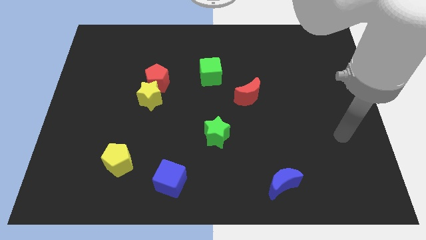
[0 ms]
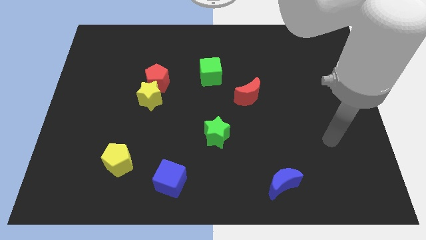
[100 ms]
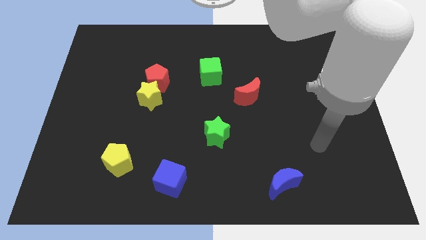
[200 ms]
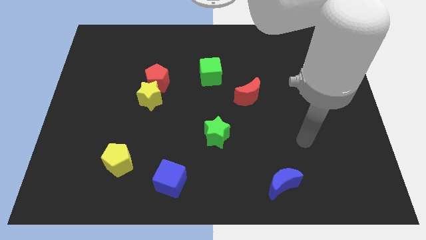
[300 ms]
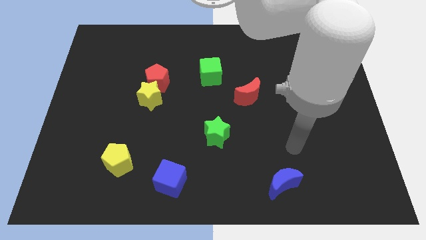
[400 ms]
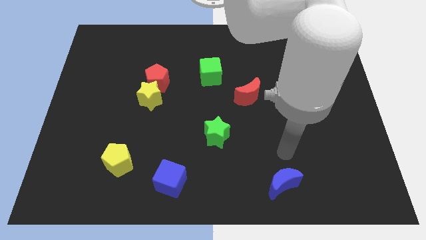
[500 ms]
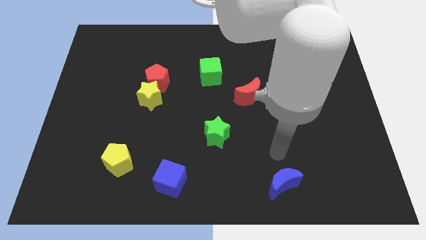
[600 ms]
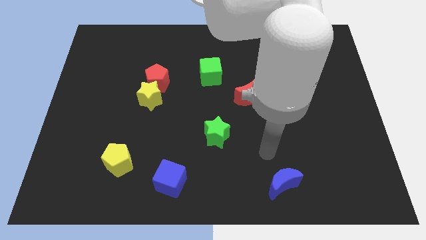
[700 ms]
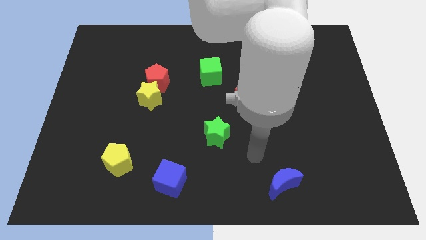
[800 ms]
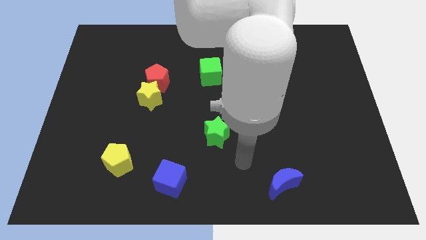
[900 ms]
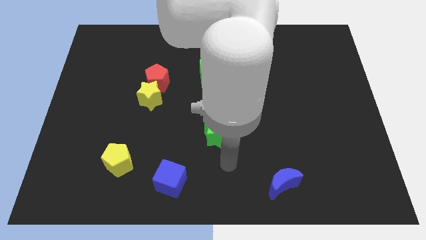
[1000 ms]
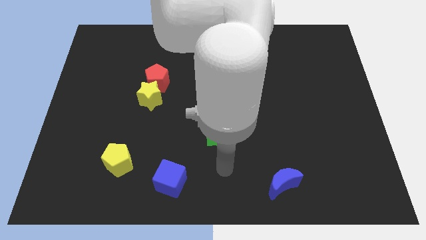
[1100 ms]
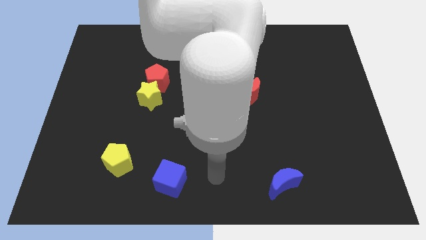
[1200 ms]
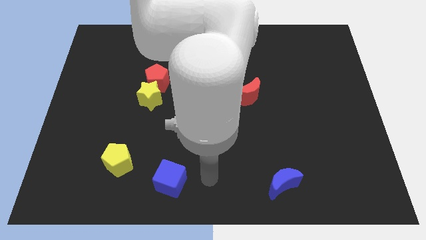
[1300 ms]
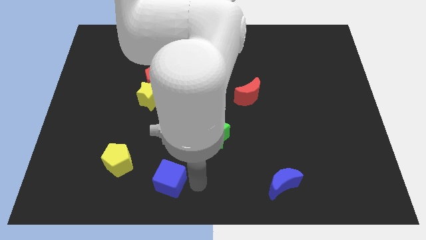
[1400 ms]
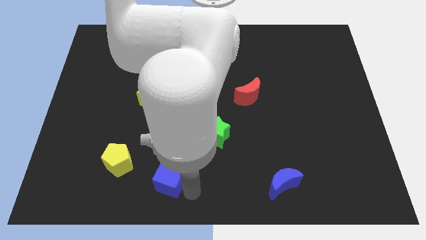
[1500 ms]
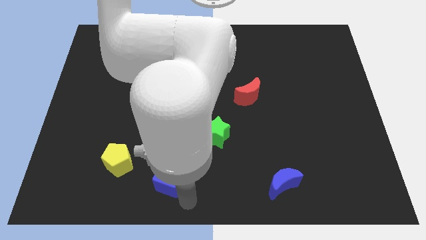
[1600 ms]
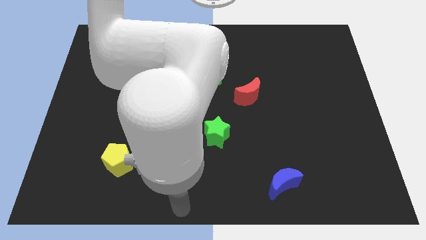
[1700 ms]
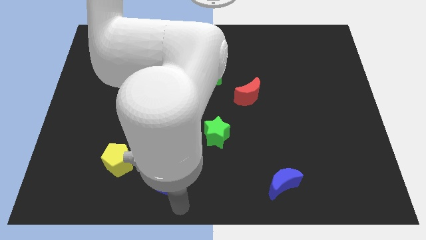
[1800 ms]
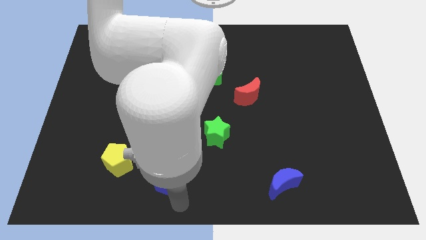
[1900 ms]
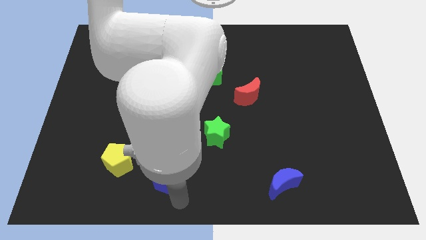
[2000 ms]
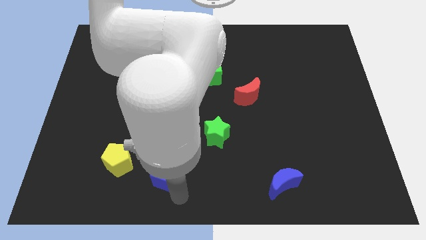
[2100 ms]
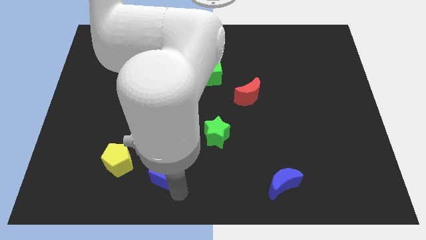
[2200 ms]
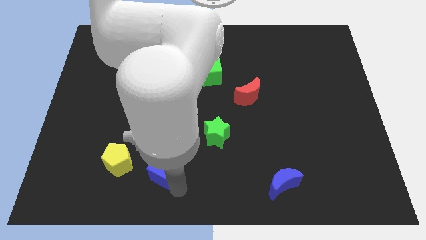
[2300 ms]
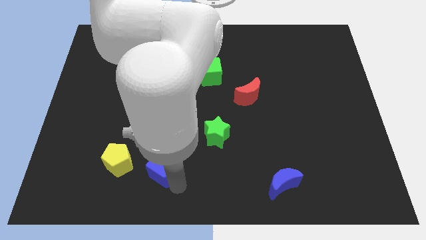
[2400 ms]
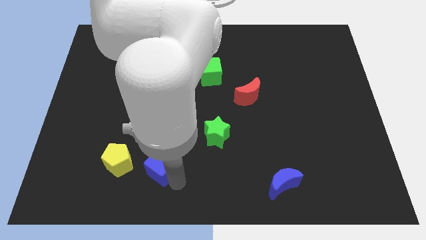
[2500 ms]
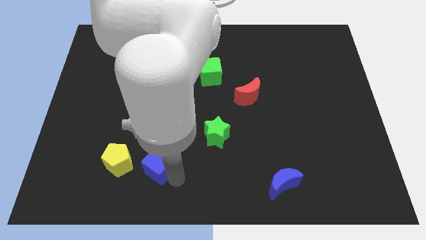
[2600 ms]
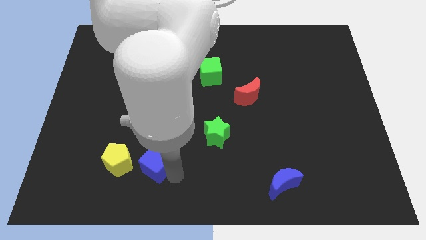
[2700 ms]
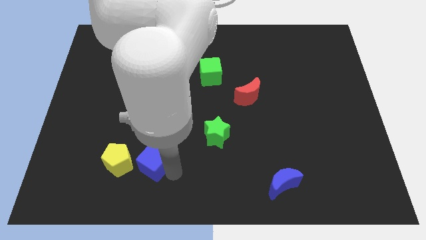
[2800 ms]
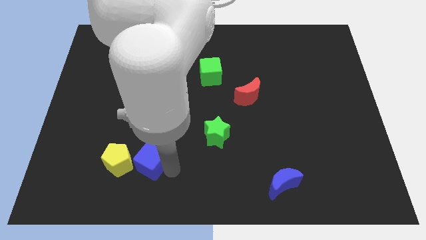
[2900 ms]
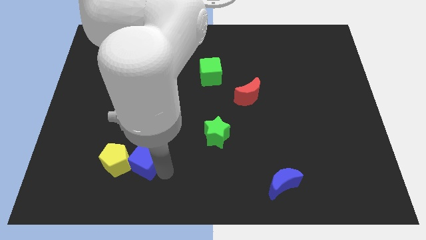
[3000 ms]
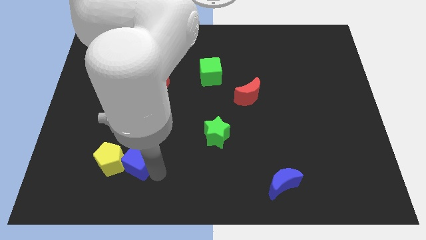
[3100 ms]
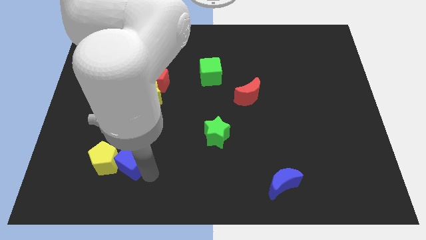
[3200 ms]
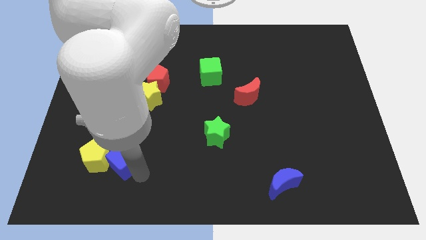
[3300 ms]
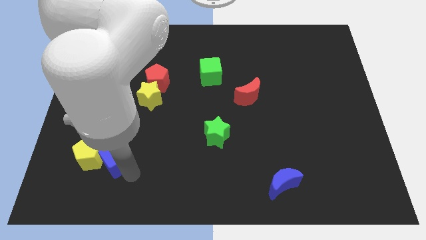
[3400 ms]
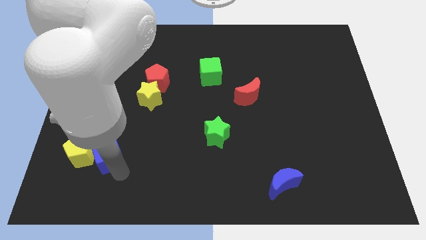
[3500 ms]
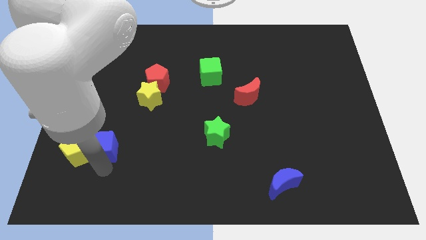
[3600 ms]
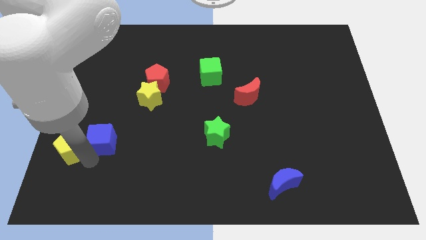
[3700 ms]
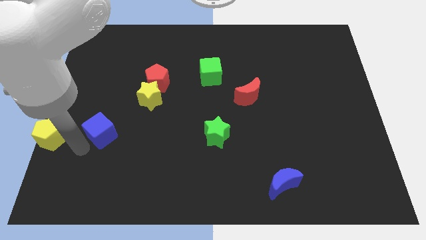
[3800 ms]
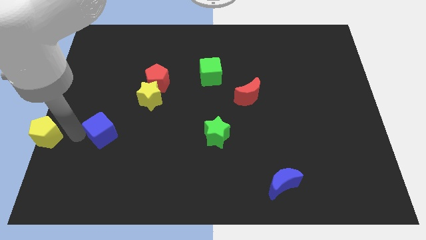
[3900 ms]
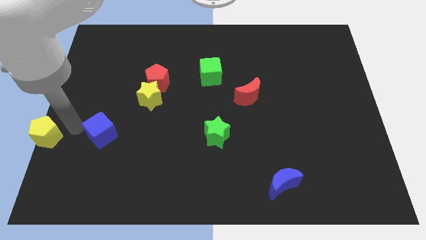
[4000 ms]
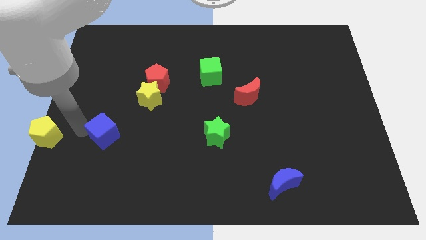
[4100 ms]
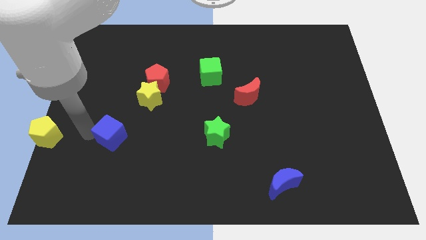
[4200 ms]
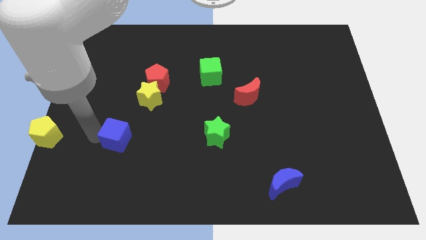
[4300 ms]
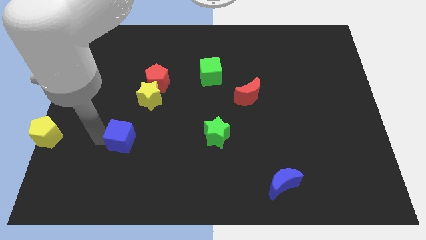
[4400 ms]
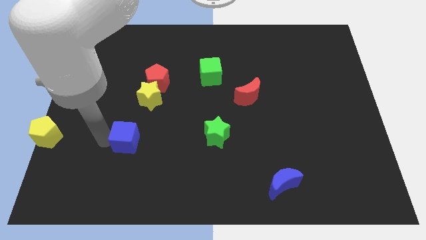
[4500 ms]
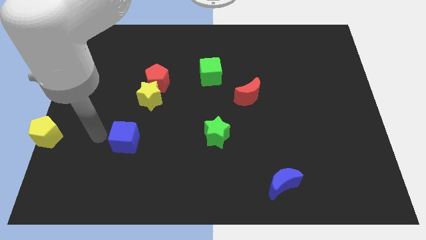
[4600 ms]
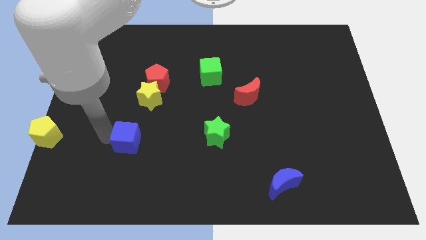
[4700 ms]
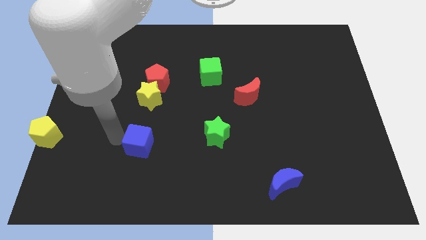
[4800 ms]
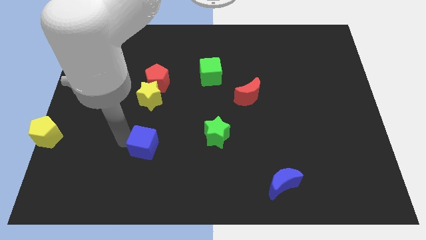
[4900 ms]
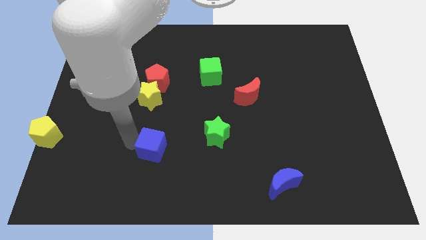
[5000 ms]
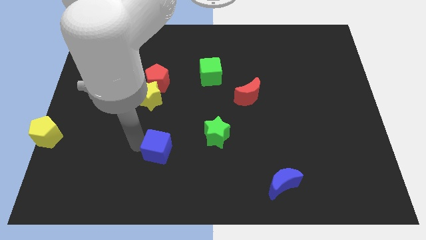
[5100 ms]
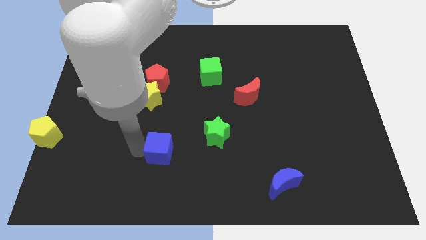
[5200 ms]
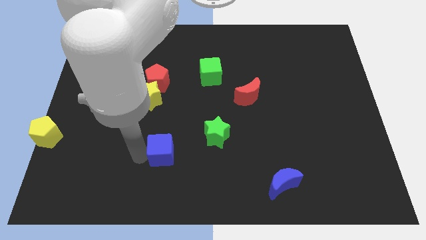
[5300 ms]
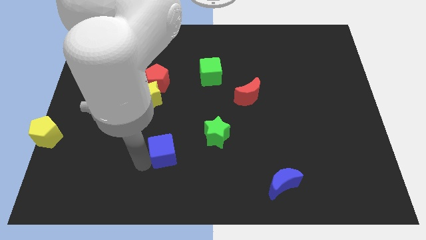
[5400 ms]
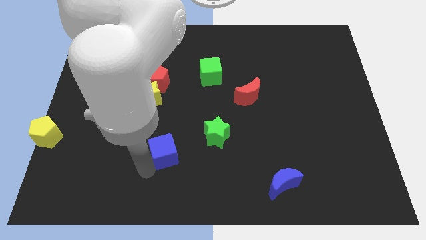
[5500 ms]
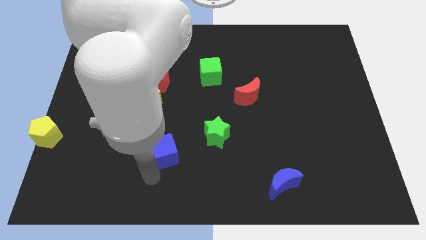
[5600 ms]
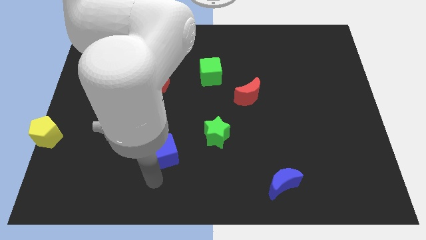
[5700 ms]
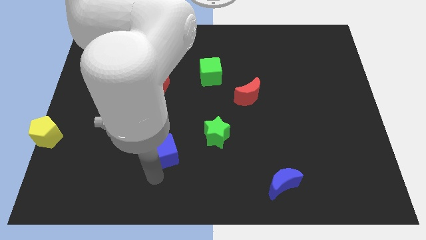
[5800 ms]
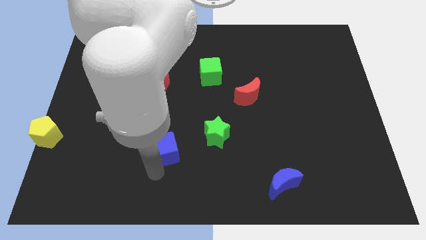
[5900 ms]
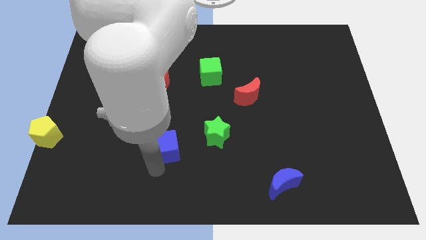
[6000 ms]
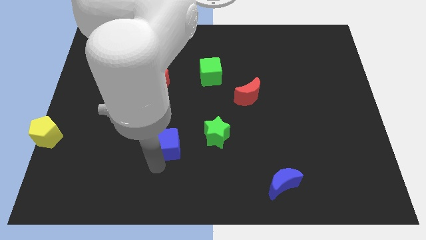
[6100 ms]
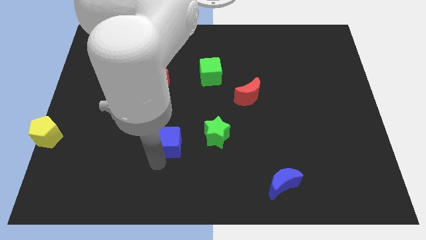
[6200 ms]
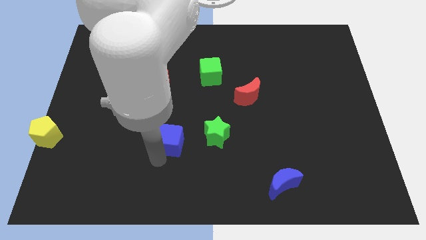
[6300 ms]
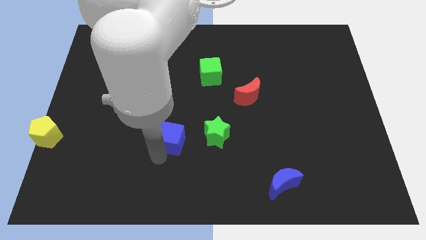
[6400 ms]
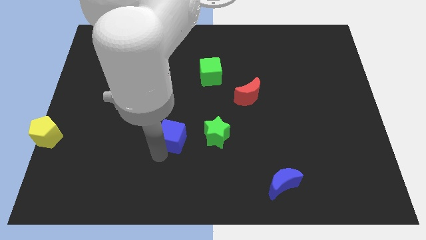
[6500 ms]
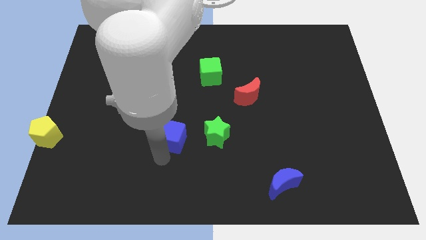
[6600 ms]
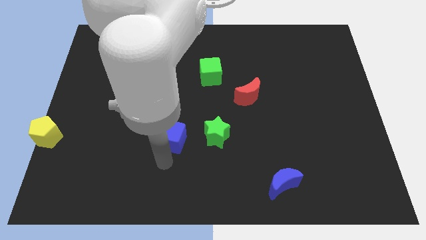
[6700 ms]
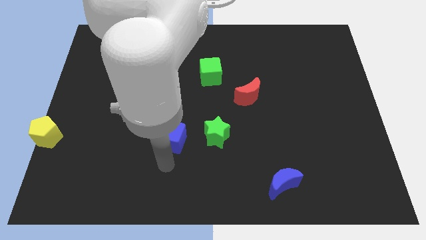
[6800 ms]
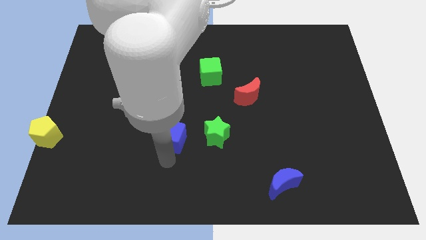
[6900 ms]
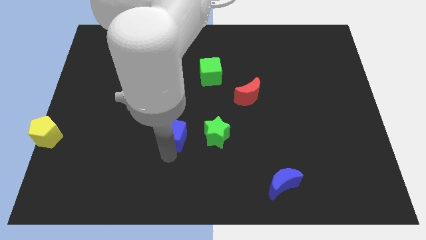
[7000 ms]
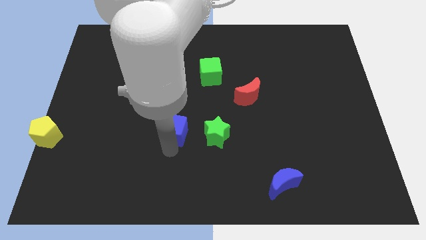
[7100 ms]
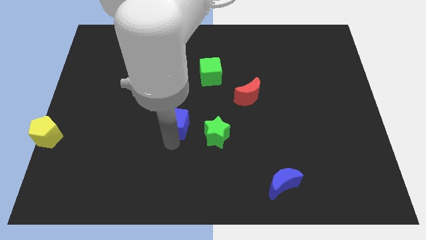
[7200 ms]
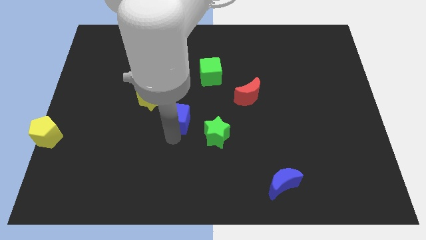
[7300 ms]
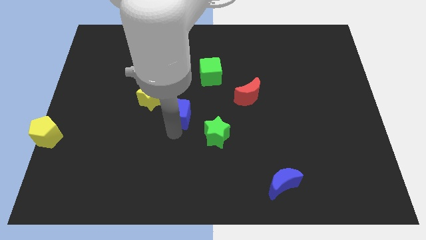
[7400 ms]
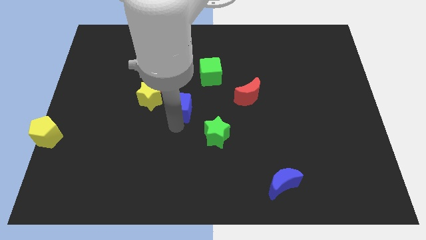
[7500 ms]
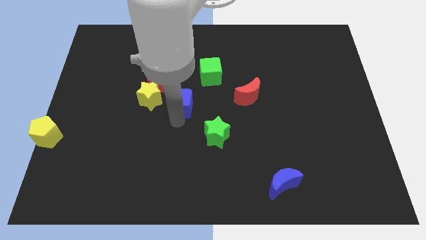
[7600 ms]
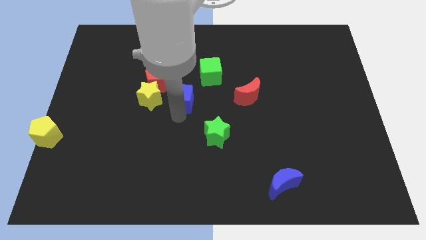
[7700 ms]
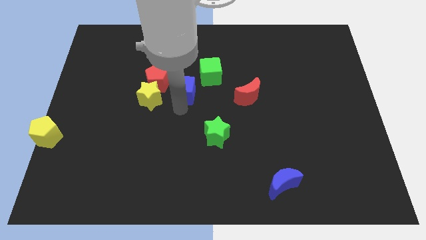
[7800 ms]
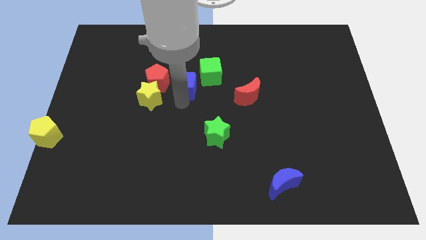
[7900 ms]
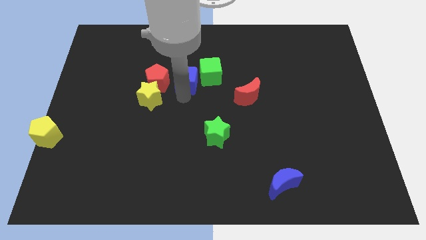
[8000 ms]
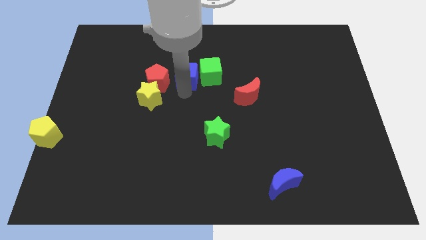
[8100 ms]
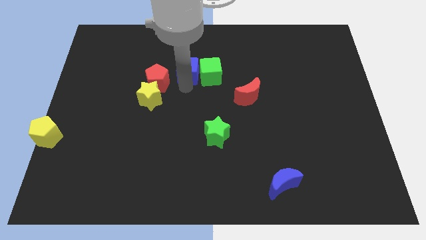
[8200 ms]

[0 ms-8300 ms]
push the blue cube to the top left of the green cube
